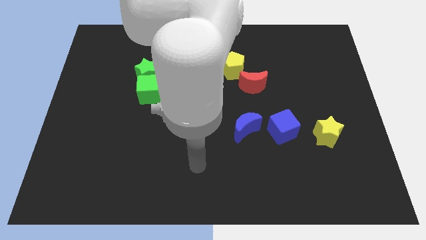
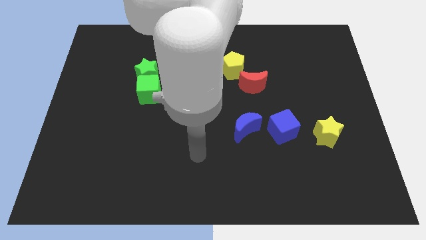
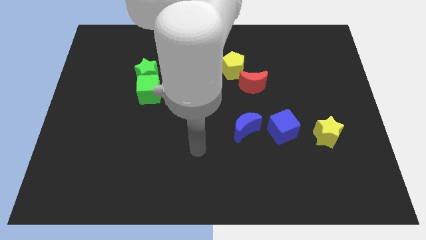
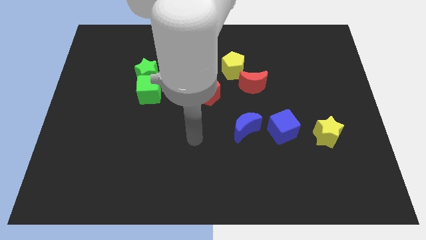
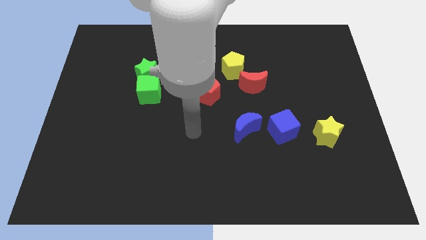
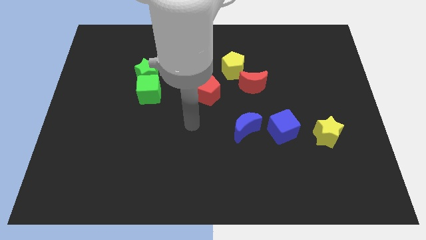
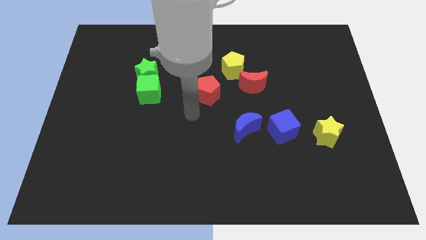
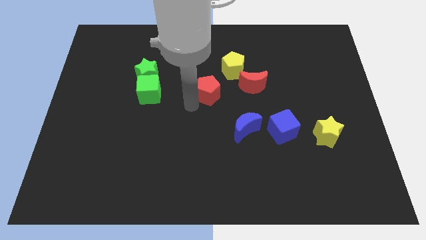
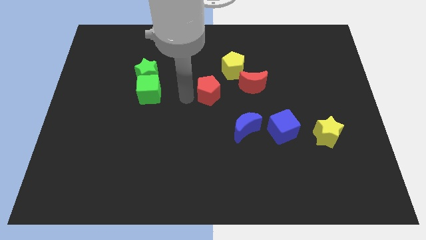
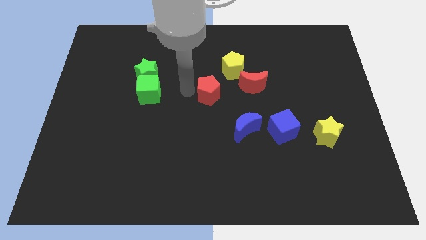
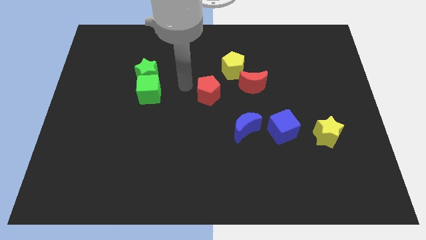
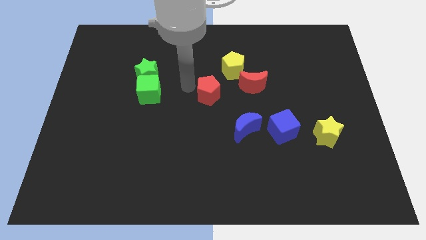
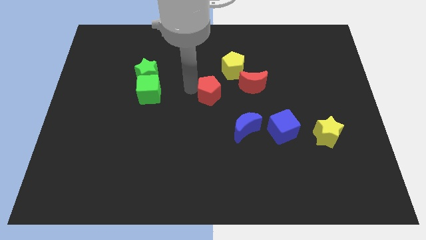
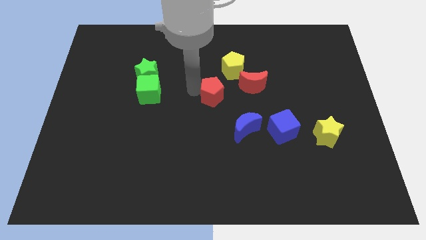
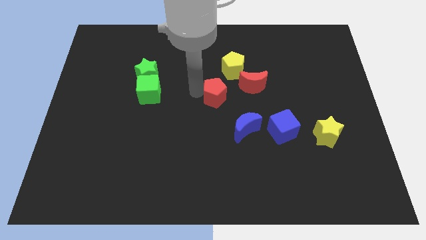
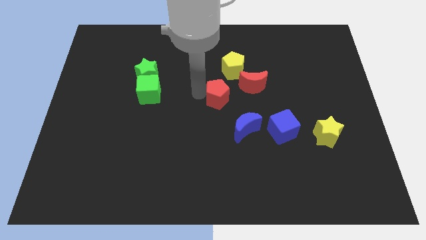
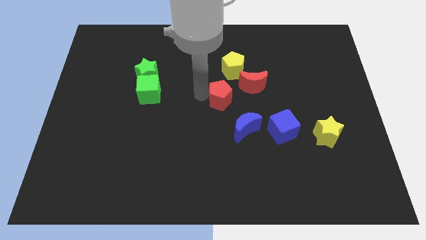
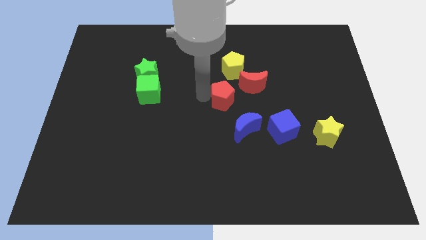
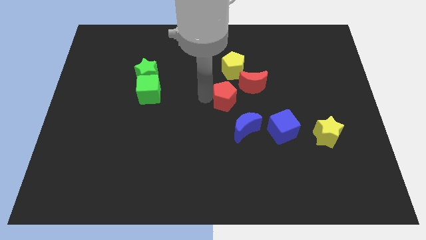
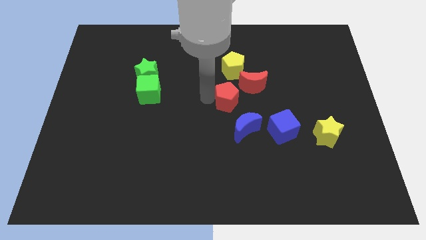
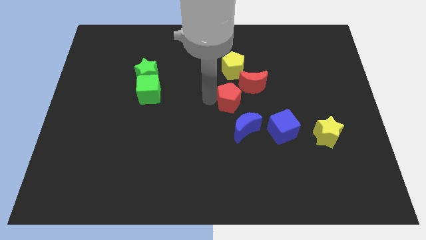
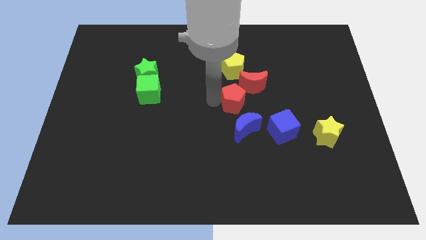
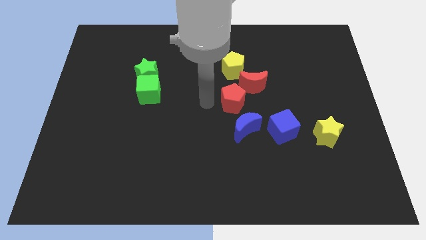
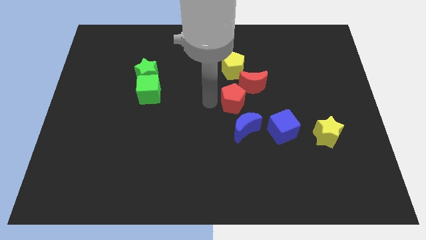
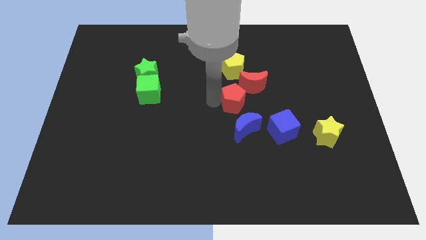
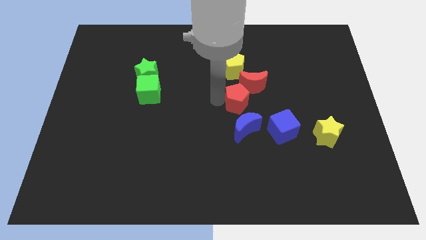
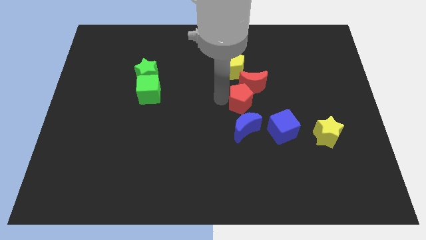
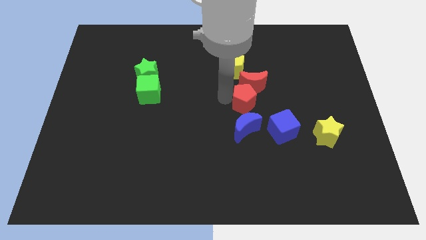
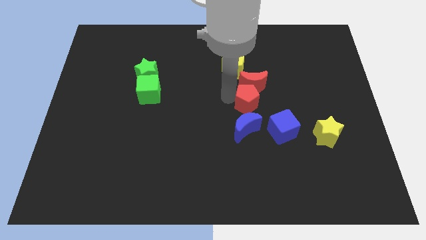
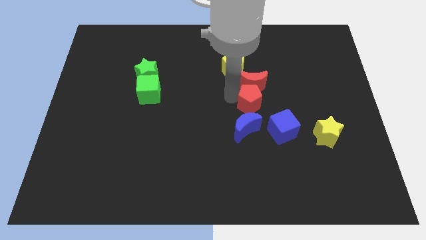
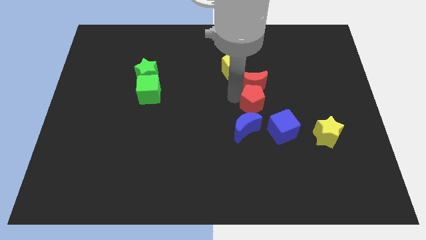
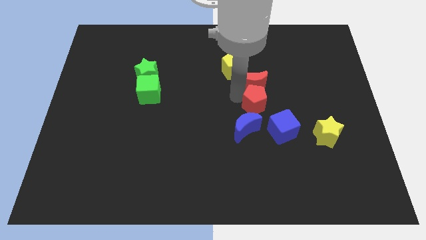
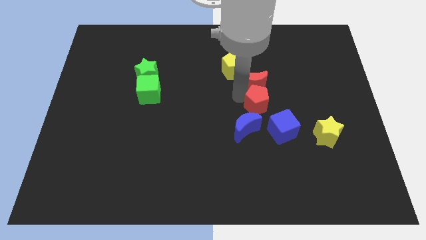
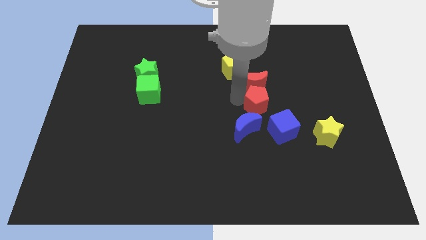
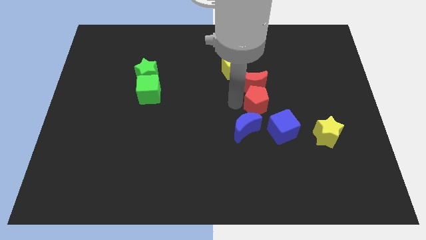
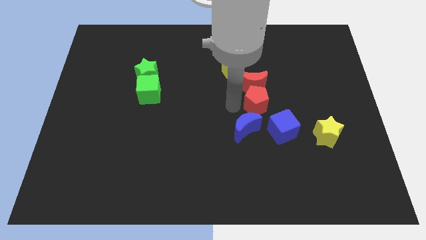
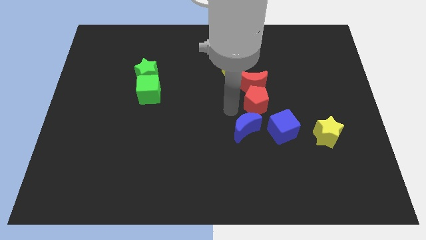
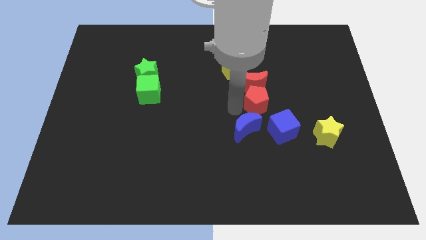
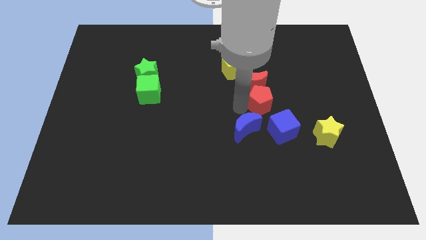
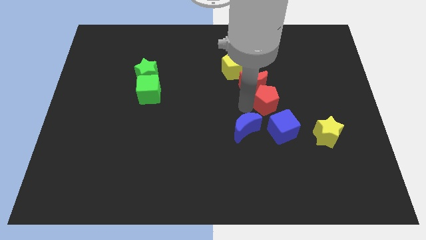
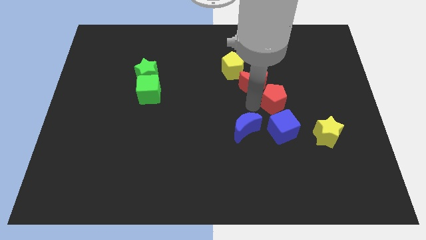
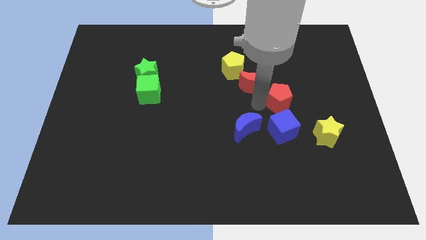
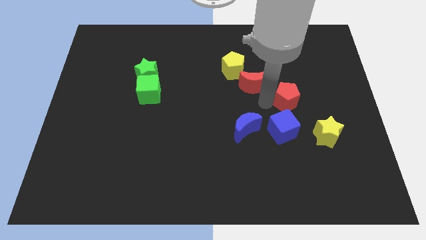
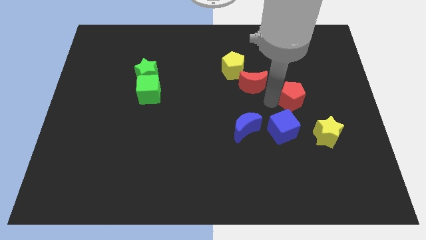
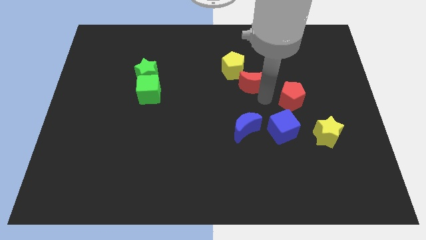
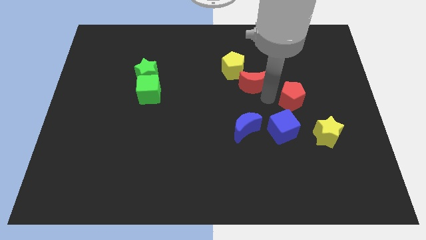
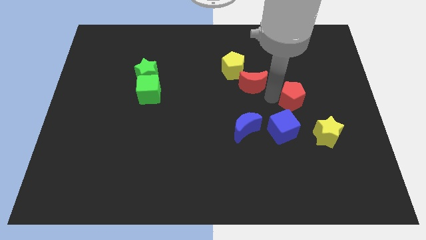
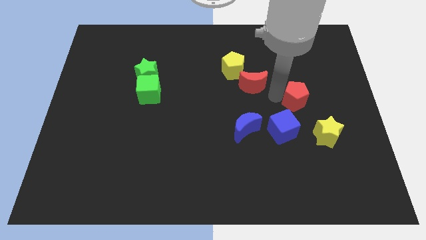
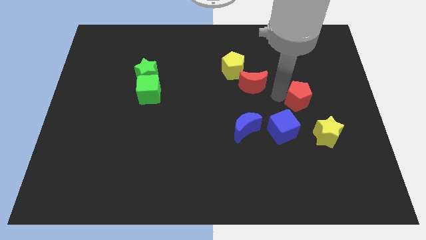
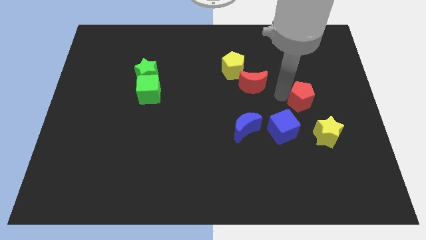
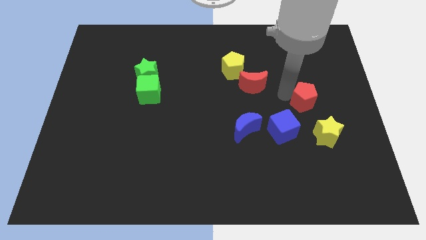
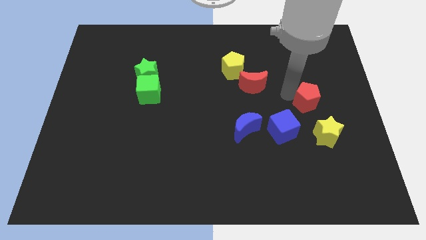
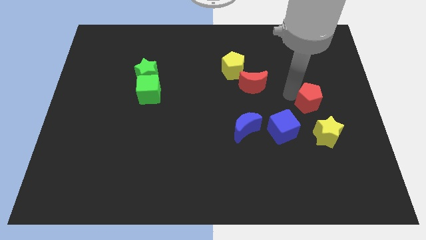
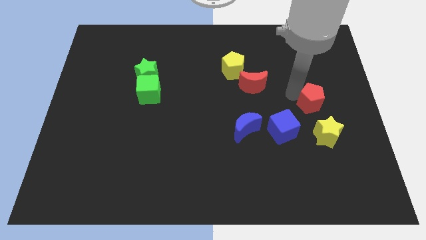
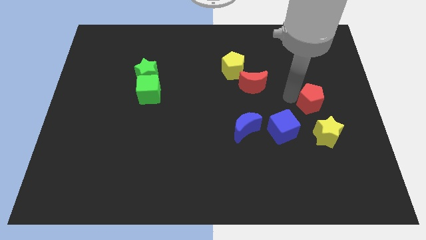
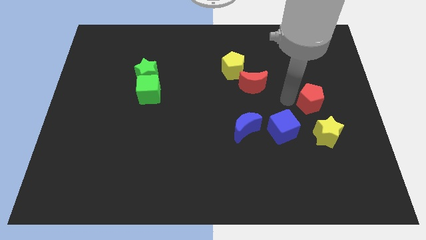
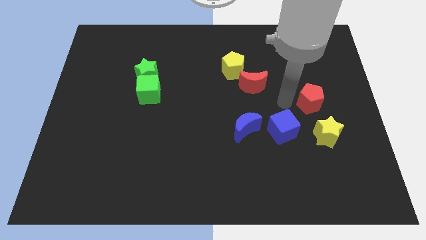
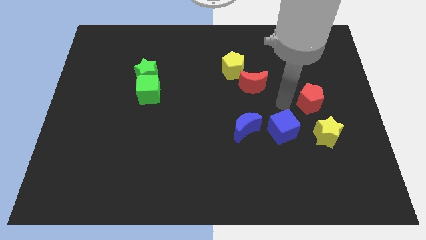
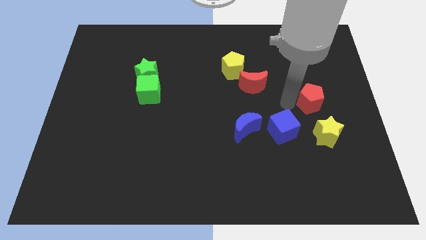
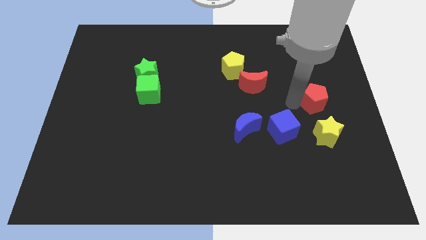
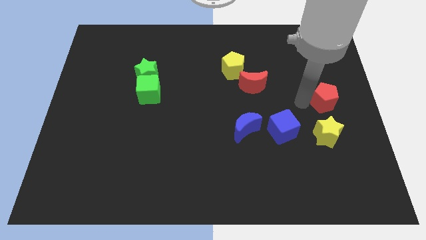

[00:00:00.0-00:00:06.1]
move the red pentagon to the center right
